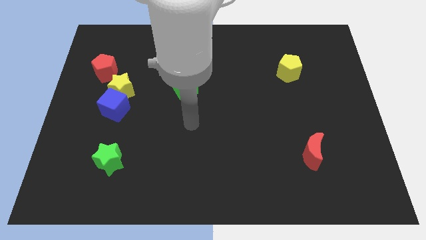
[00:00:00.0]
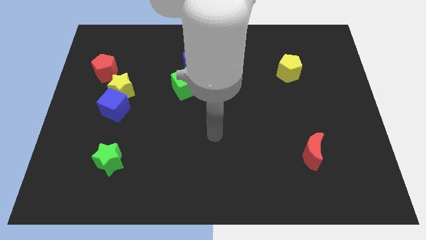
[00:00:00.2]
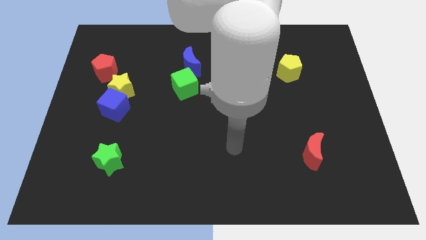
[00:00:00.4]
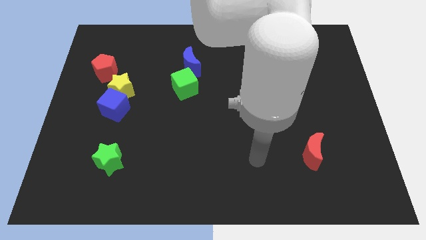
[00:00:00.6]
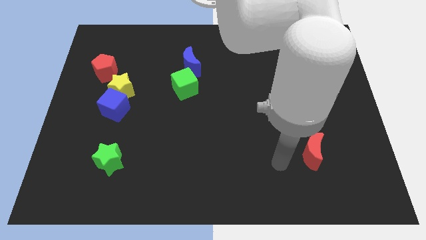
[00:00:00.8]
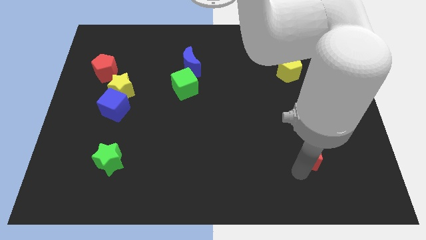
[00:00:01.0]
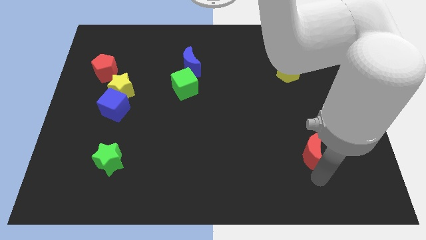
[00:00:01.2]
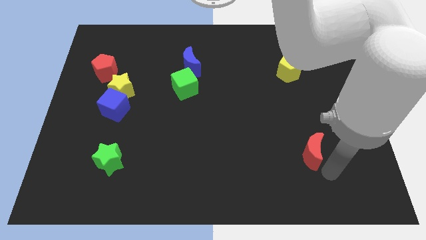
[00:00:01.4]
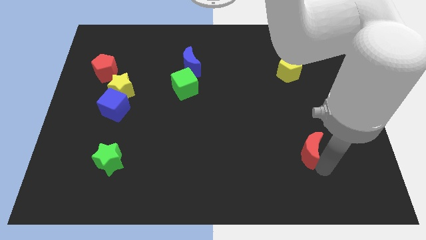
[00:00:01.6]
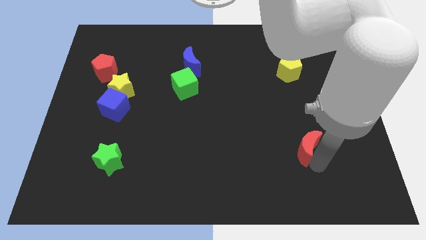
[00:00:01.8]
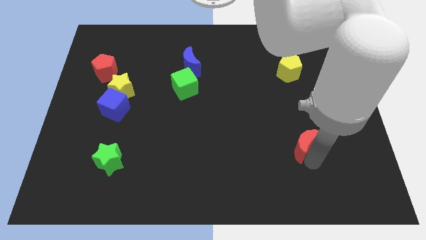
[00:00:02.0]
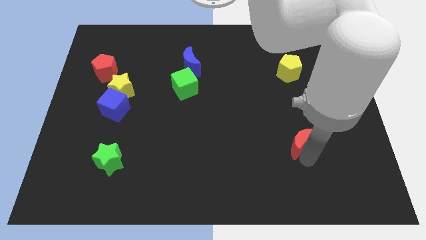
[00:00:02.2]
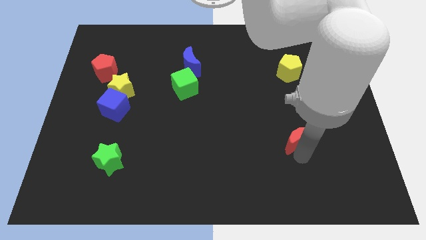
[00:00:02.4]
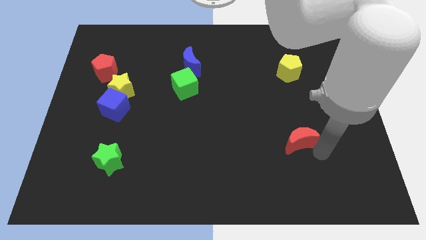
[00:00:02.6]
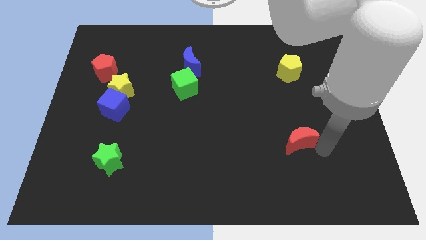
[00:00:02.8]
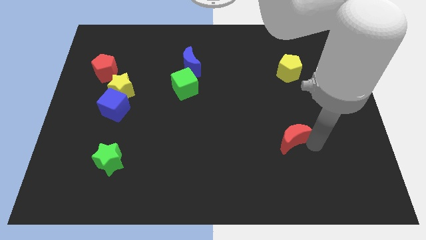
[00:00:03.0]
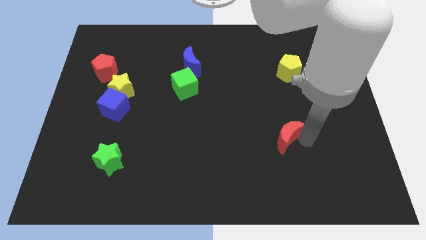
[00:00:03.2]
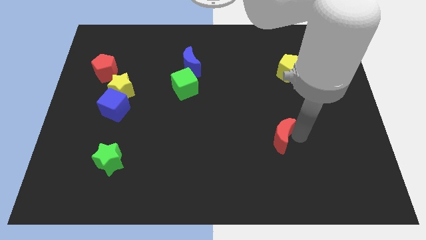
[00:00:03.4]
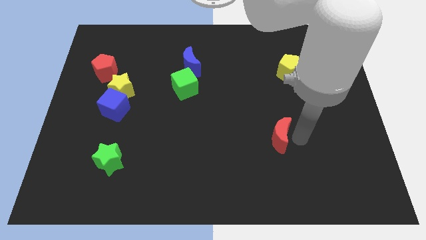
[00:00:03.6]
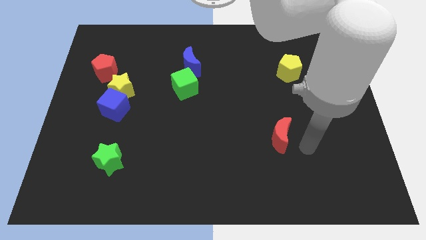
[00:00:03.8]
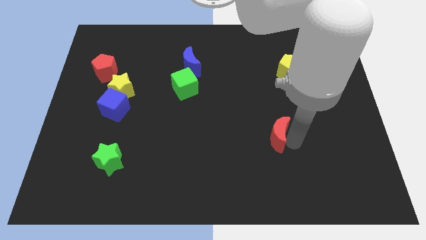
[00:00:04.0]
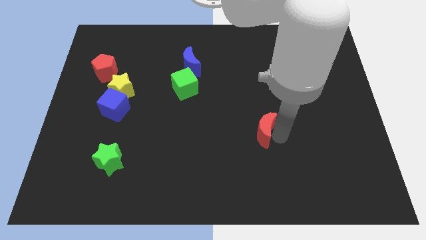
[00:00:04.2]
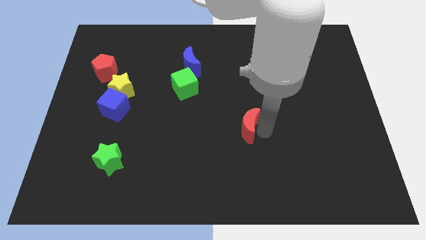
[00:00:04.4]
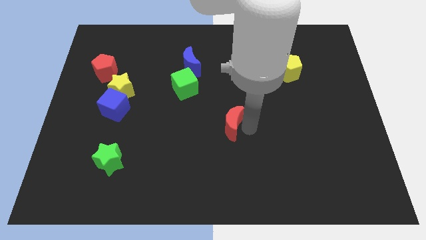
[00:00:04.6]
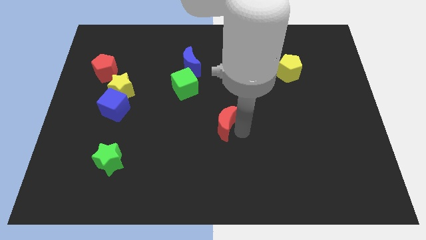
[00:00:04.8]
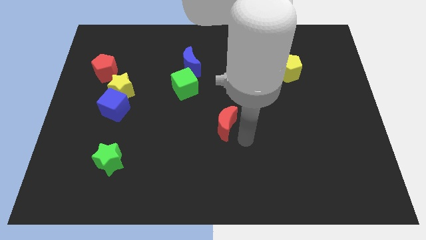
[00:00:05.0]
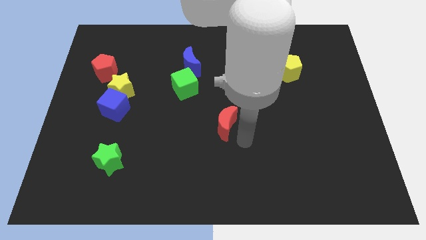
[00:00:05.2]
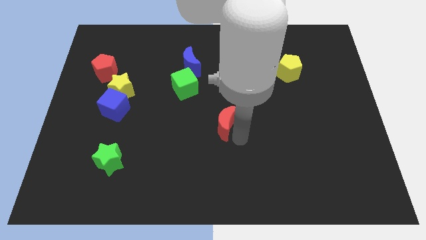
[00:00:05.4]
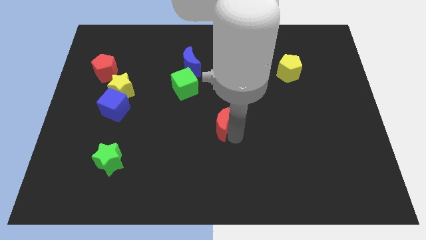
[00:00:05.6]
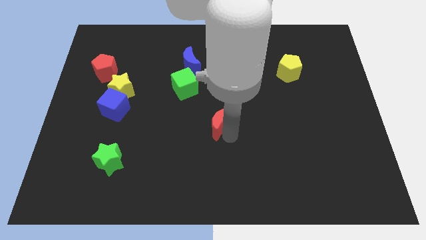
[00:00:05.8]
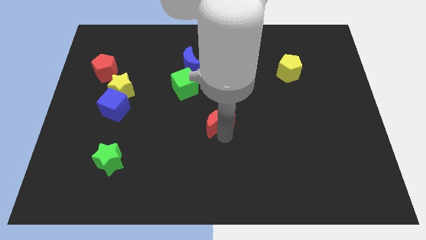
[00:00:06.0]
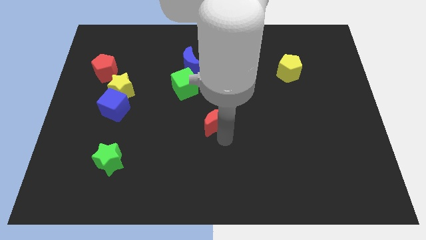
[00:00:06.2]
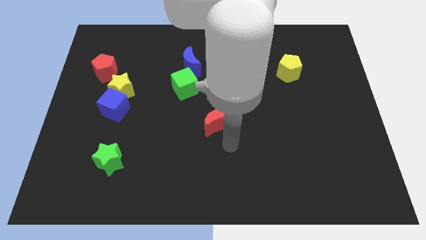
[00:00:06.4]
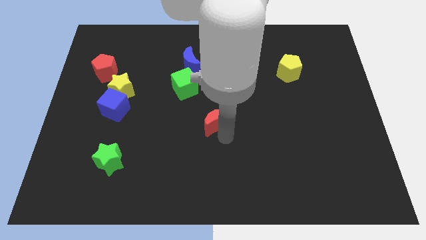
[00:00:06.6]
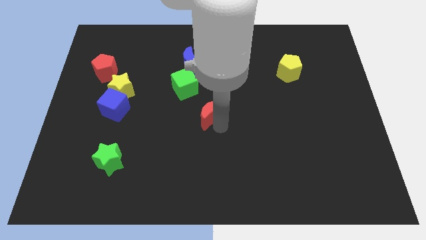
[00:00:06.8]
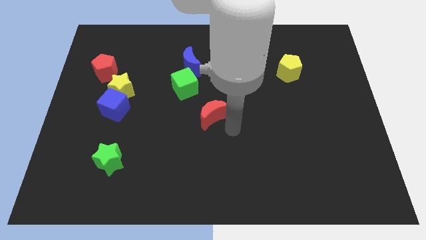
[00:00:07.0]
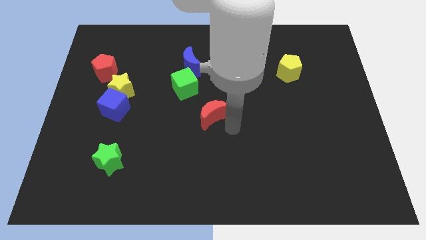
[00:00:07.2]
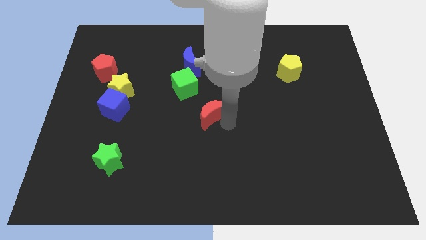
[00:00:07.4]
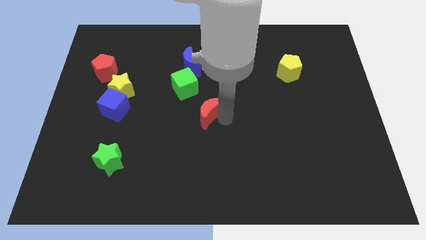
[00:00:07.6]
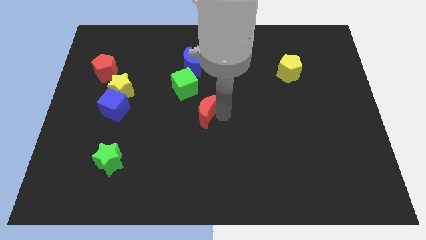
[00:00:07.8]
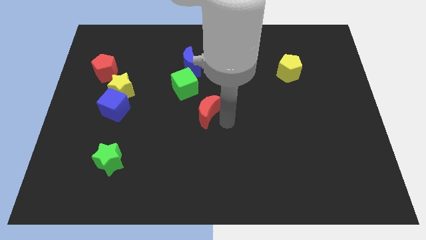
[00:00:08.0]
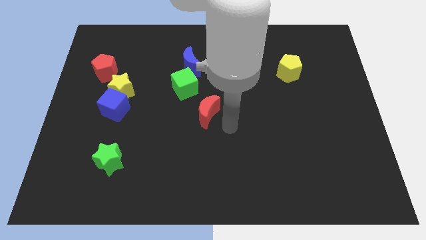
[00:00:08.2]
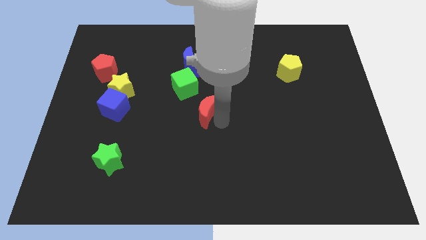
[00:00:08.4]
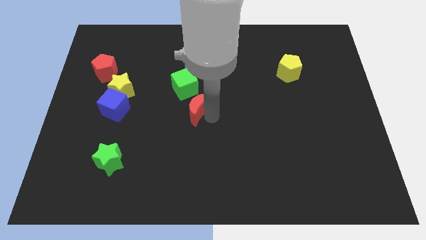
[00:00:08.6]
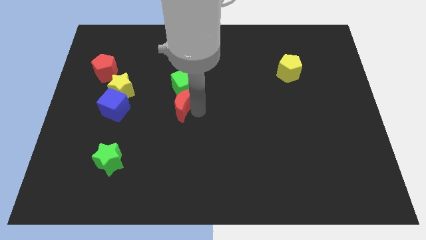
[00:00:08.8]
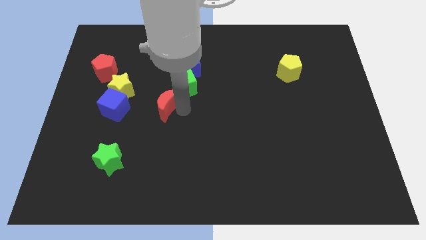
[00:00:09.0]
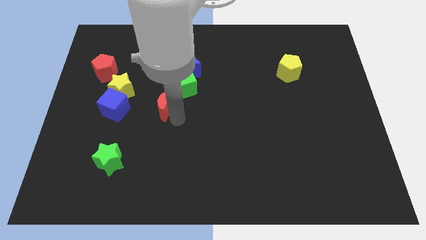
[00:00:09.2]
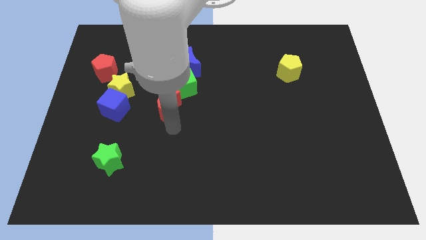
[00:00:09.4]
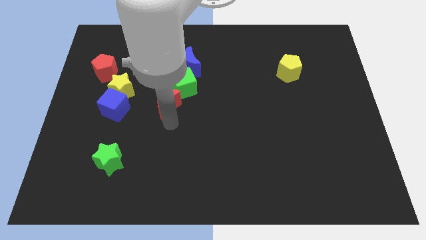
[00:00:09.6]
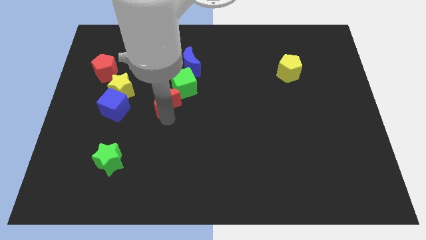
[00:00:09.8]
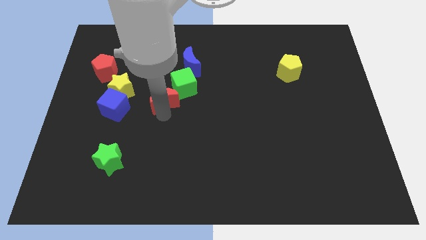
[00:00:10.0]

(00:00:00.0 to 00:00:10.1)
push the red moon to the left side of the green cube

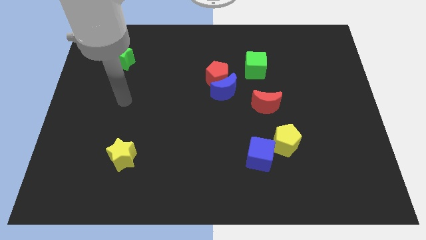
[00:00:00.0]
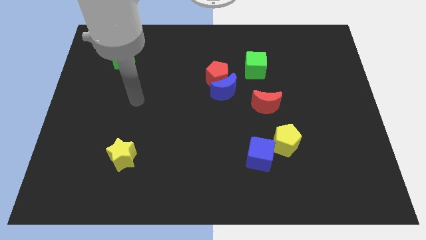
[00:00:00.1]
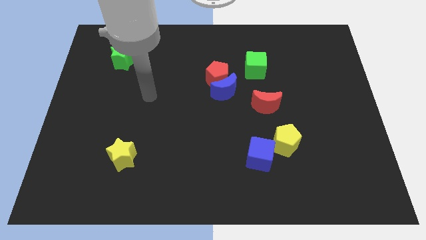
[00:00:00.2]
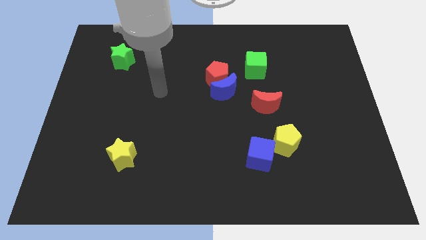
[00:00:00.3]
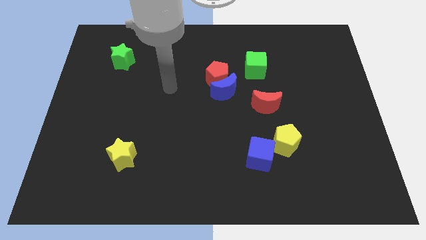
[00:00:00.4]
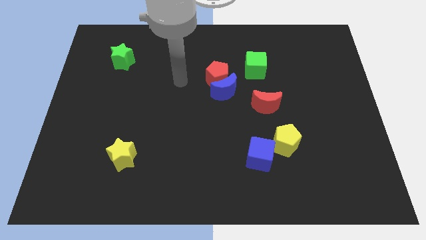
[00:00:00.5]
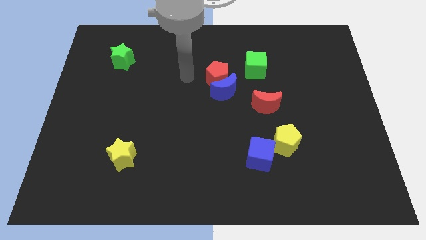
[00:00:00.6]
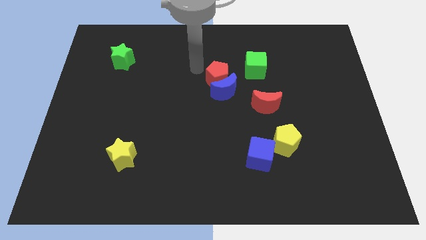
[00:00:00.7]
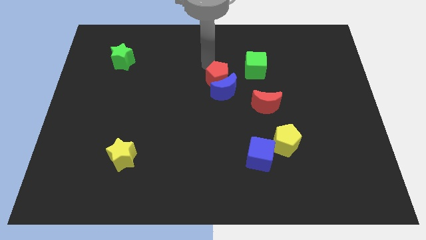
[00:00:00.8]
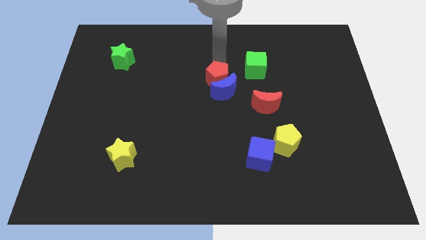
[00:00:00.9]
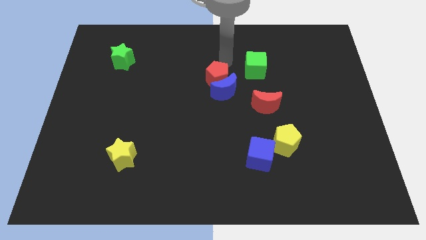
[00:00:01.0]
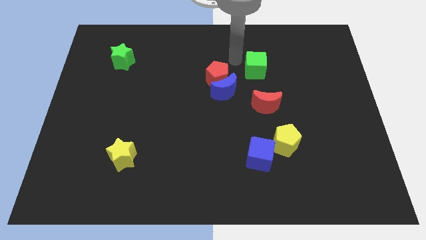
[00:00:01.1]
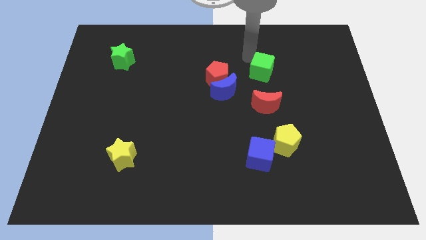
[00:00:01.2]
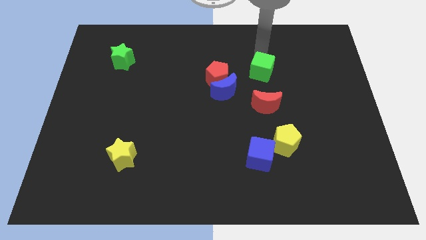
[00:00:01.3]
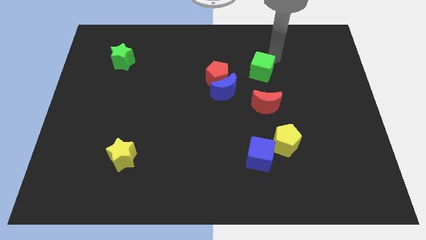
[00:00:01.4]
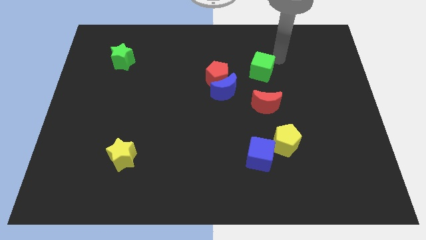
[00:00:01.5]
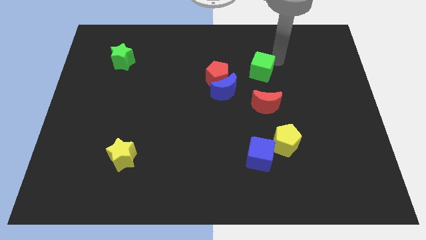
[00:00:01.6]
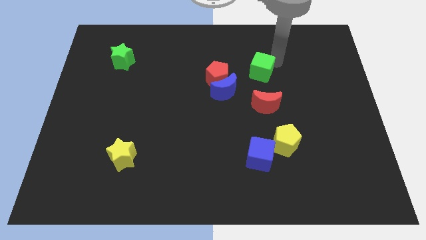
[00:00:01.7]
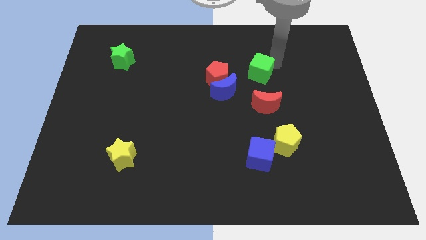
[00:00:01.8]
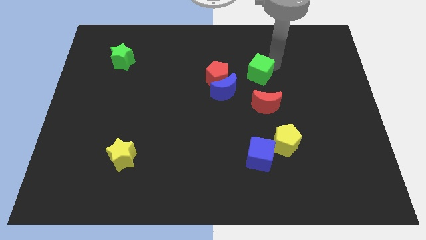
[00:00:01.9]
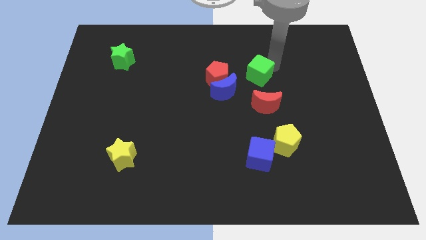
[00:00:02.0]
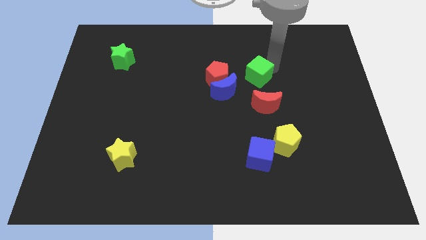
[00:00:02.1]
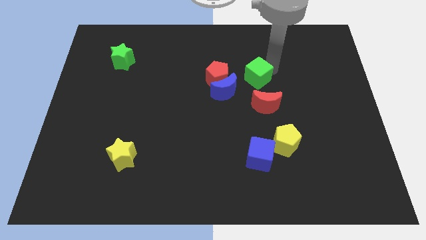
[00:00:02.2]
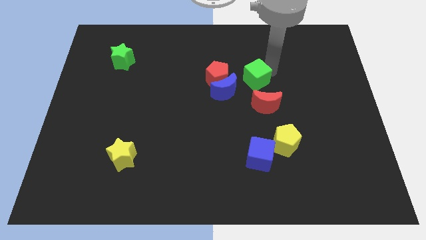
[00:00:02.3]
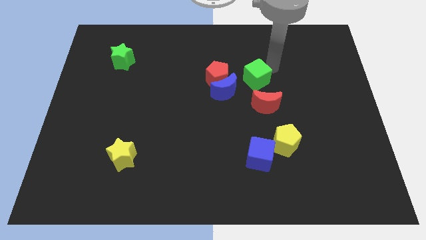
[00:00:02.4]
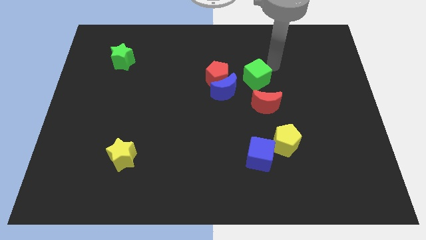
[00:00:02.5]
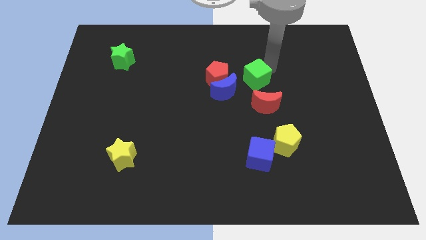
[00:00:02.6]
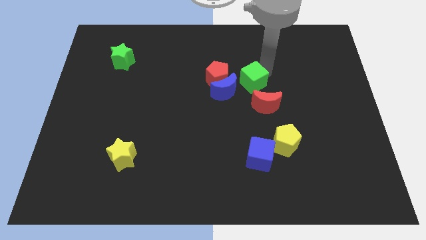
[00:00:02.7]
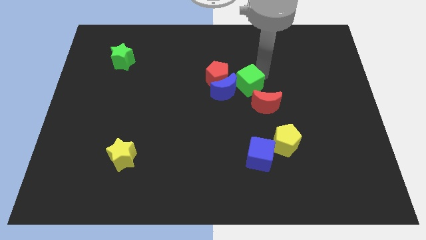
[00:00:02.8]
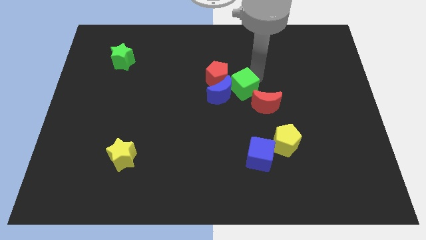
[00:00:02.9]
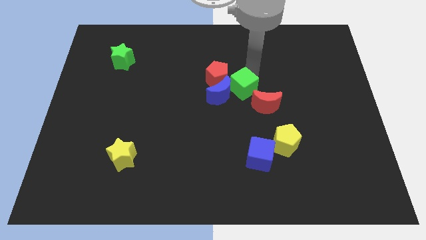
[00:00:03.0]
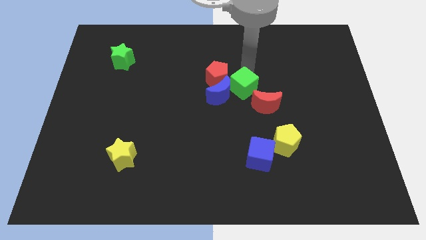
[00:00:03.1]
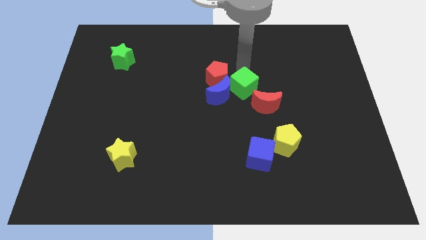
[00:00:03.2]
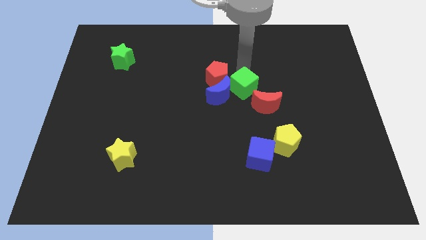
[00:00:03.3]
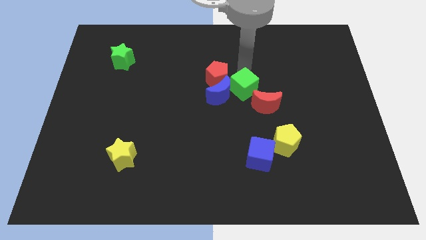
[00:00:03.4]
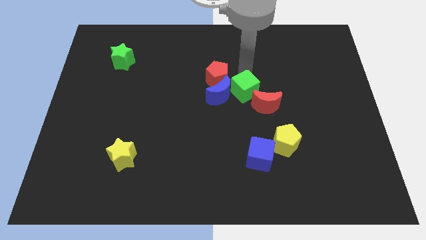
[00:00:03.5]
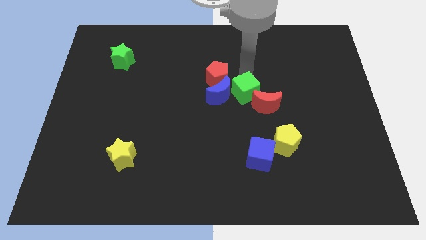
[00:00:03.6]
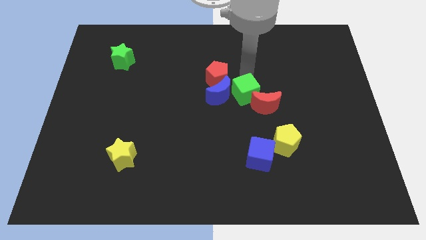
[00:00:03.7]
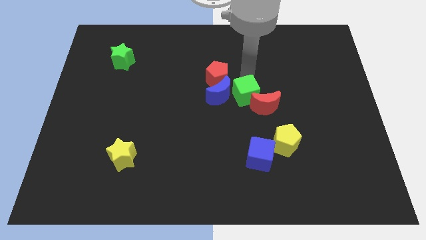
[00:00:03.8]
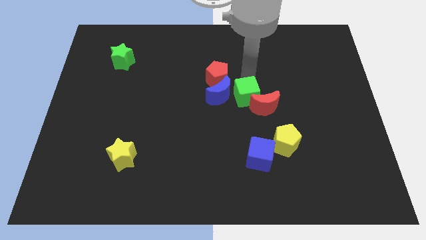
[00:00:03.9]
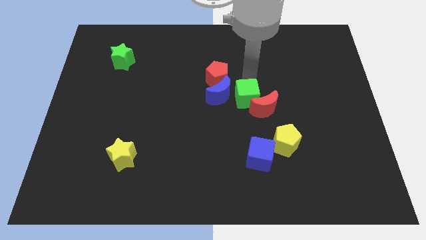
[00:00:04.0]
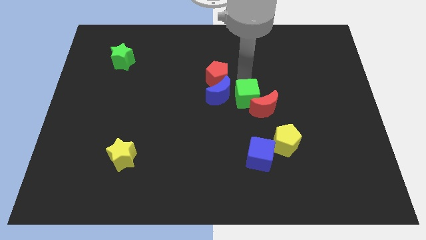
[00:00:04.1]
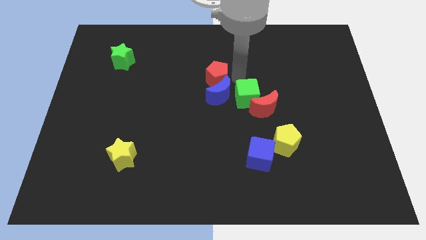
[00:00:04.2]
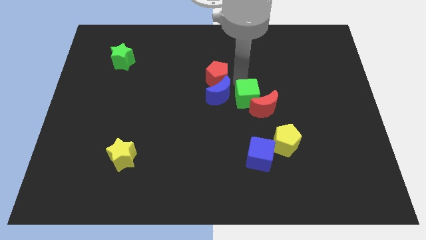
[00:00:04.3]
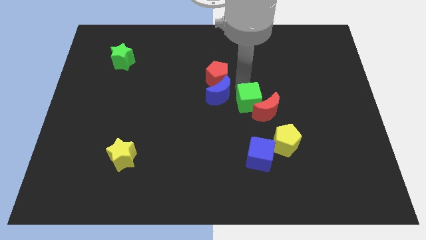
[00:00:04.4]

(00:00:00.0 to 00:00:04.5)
slide the green cube to the top side of the blue cube
